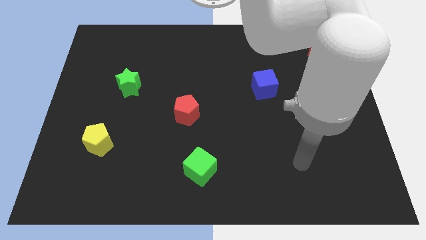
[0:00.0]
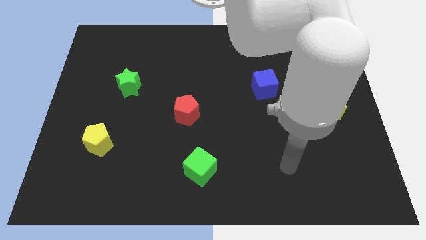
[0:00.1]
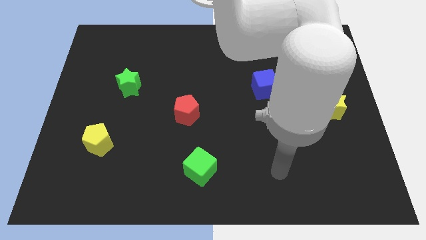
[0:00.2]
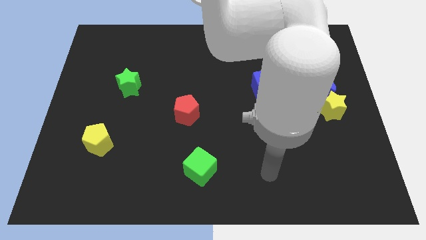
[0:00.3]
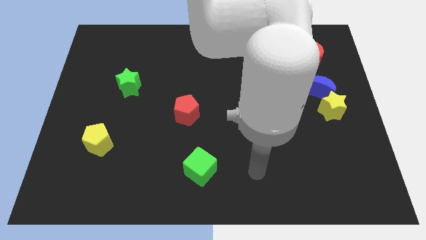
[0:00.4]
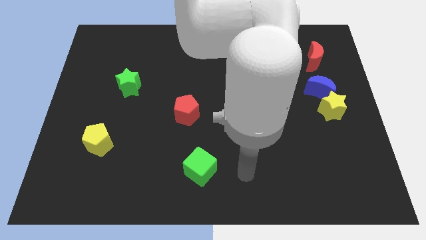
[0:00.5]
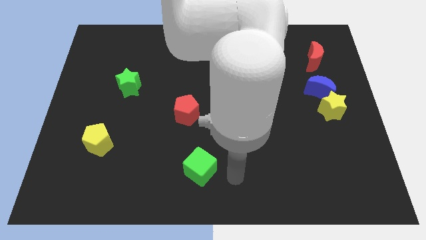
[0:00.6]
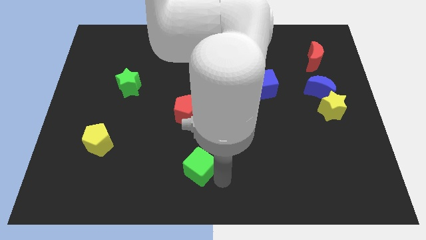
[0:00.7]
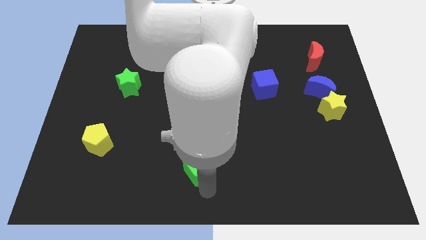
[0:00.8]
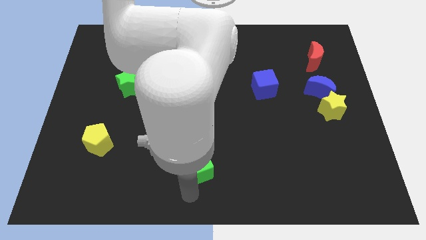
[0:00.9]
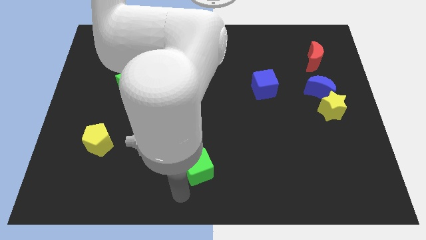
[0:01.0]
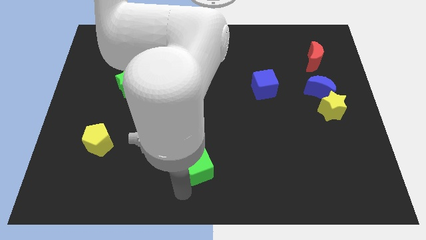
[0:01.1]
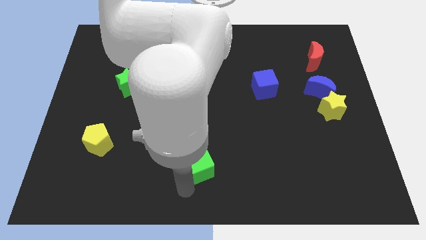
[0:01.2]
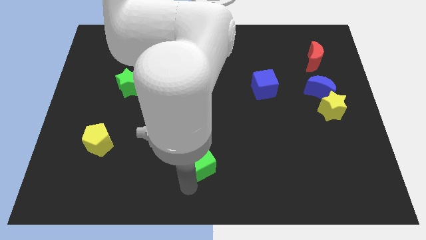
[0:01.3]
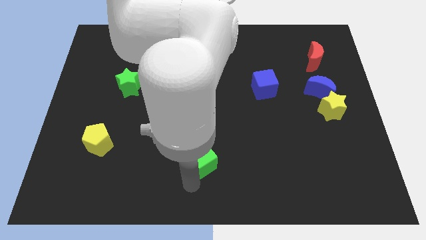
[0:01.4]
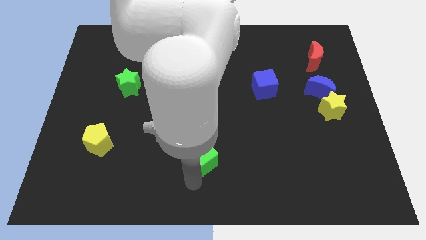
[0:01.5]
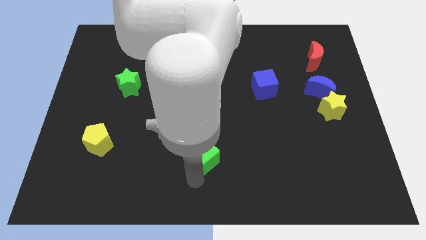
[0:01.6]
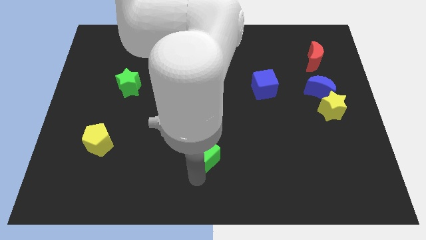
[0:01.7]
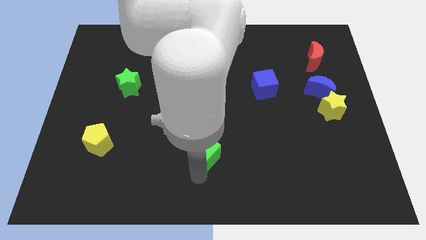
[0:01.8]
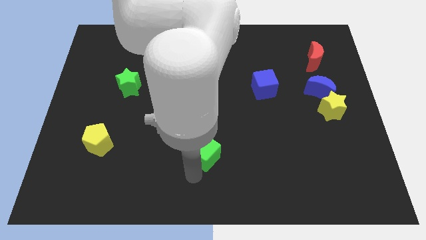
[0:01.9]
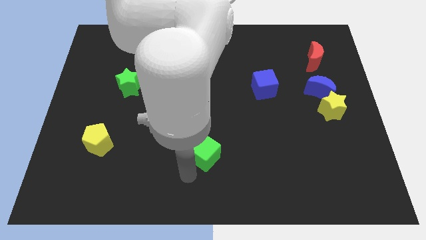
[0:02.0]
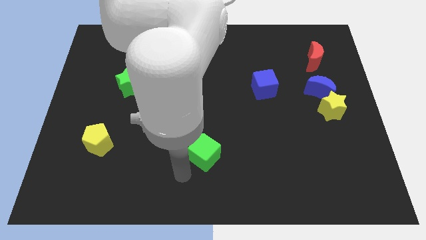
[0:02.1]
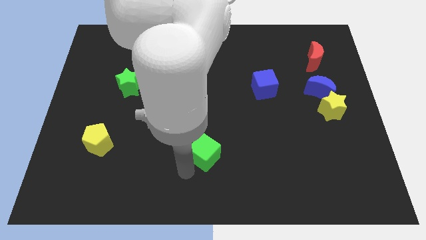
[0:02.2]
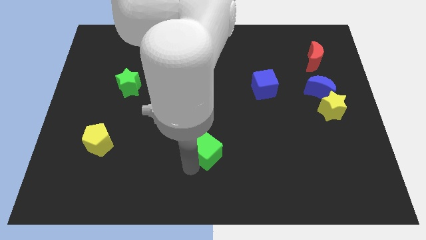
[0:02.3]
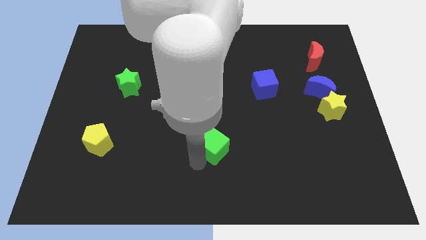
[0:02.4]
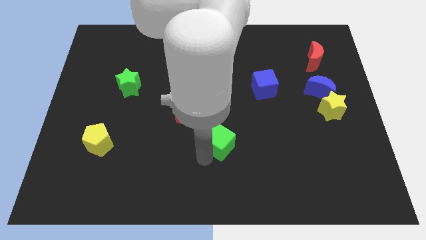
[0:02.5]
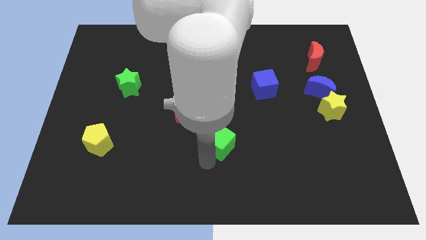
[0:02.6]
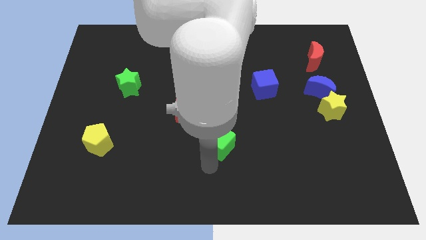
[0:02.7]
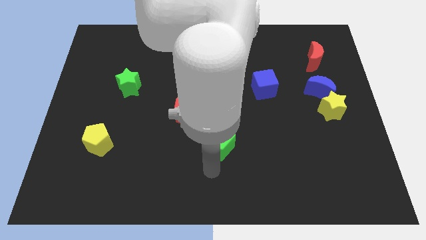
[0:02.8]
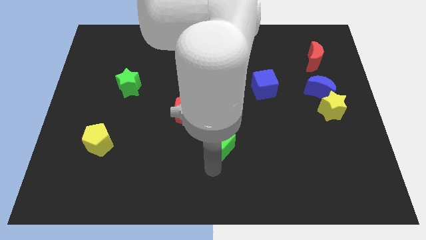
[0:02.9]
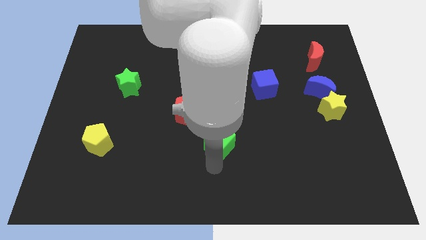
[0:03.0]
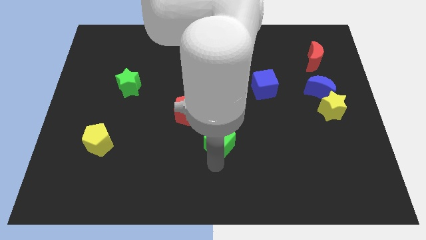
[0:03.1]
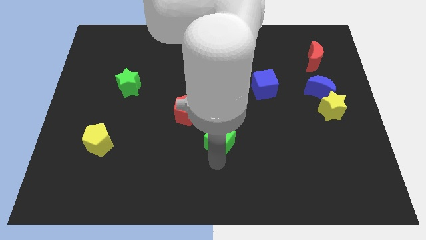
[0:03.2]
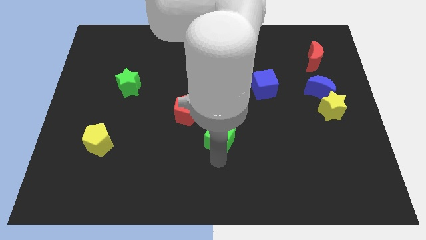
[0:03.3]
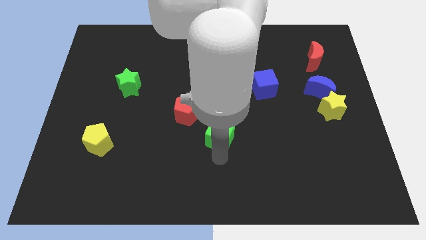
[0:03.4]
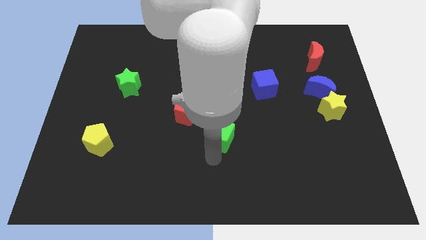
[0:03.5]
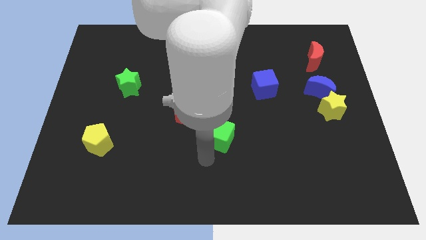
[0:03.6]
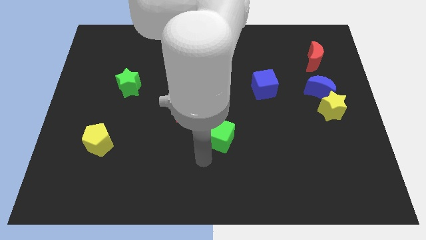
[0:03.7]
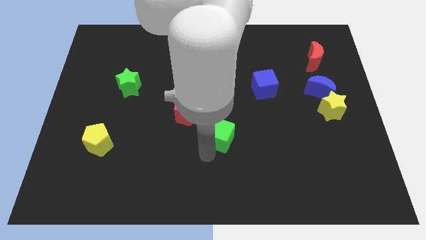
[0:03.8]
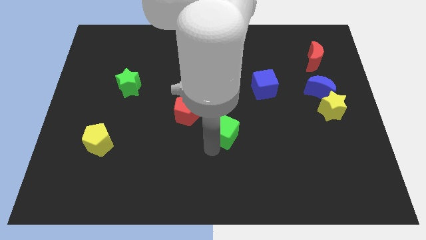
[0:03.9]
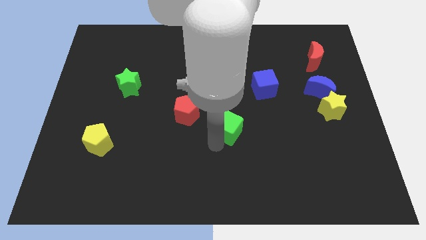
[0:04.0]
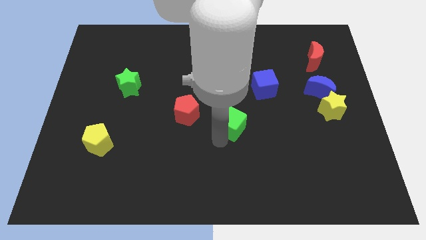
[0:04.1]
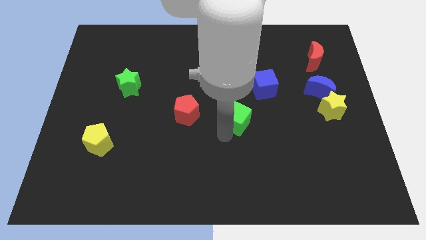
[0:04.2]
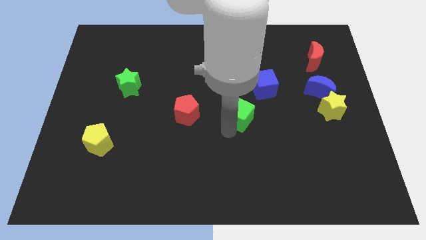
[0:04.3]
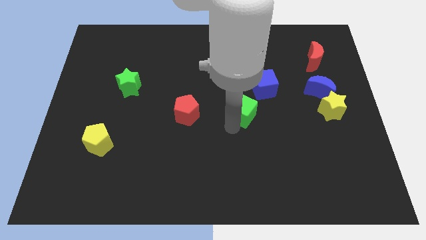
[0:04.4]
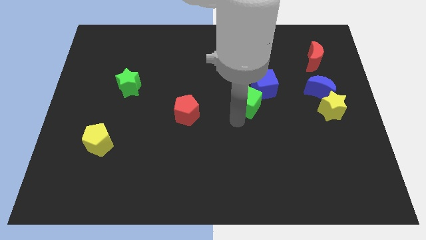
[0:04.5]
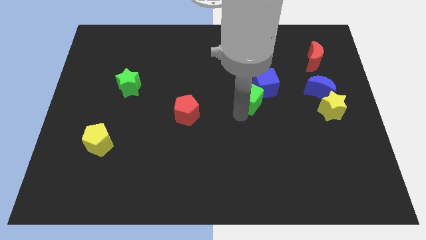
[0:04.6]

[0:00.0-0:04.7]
move the green cube to the blue cube

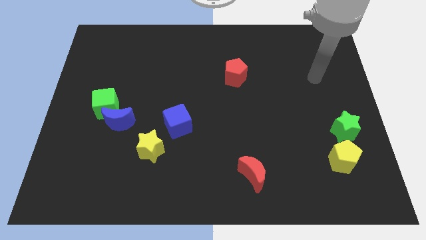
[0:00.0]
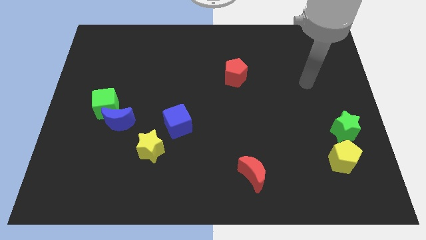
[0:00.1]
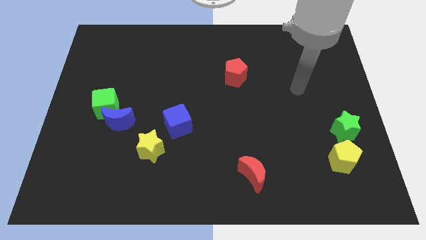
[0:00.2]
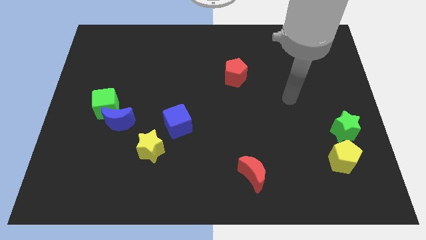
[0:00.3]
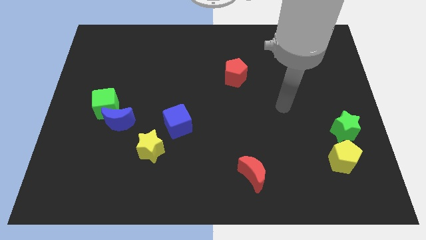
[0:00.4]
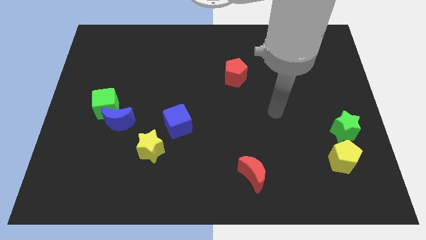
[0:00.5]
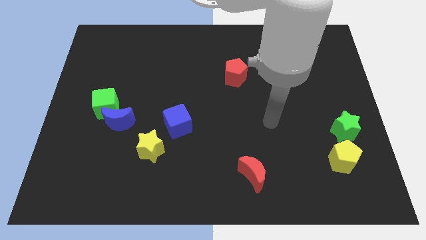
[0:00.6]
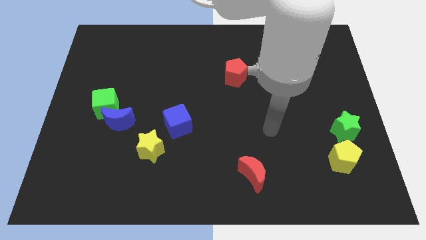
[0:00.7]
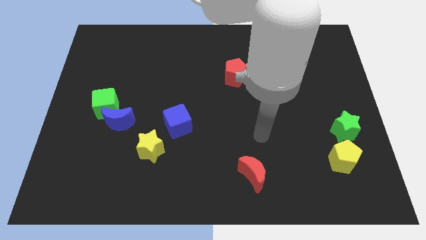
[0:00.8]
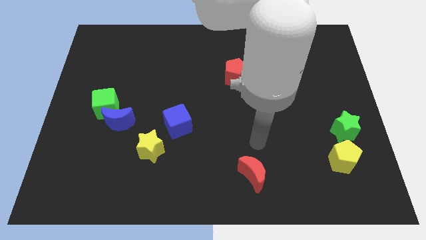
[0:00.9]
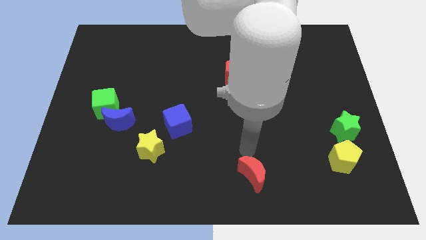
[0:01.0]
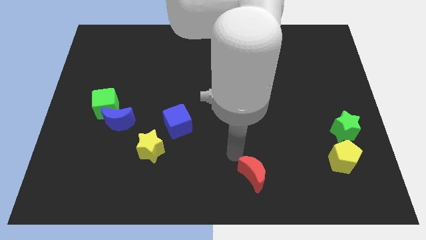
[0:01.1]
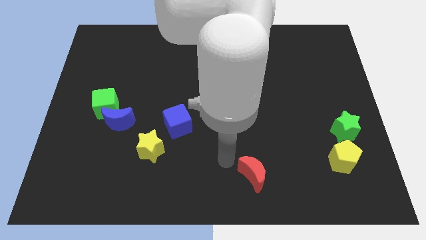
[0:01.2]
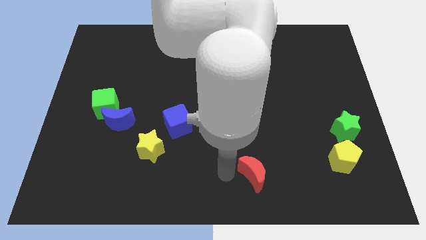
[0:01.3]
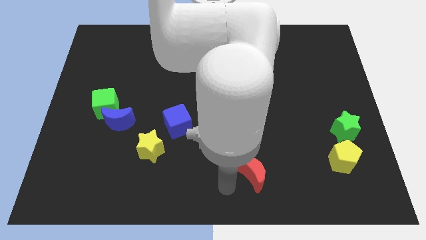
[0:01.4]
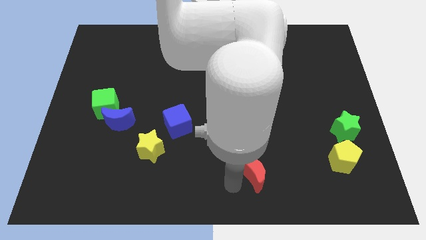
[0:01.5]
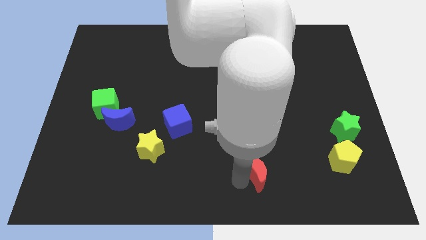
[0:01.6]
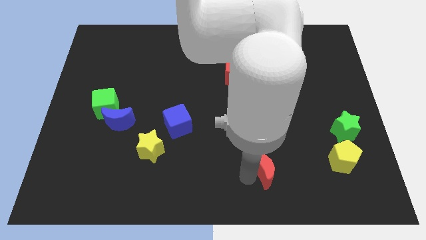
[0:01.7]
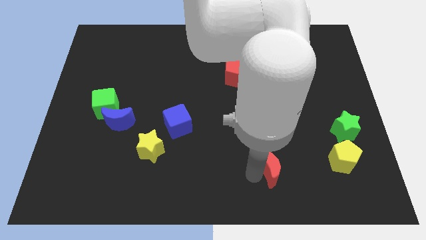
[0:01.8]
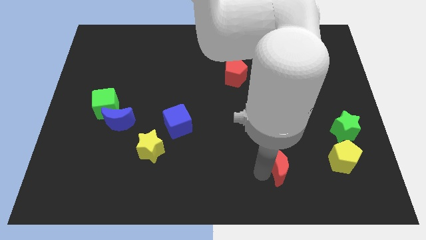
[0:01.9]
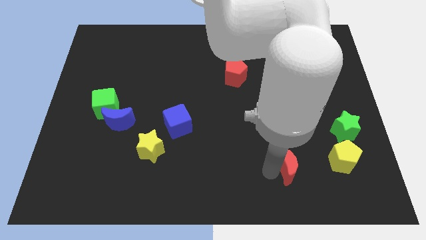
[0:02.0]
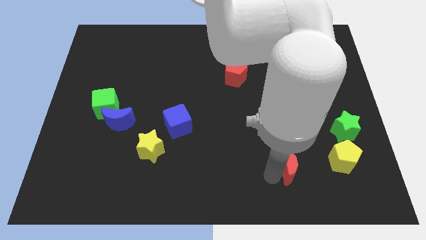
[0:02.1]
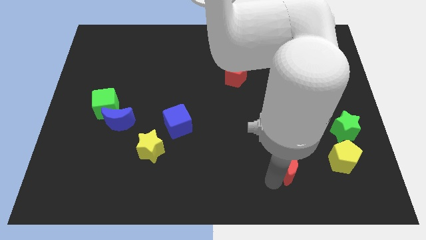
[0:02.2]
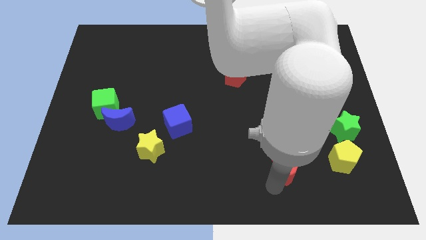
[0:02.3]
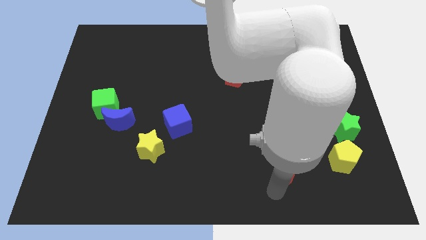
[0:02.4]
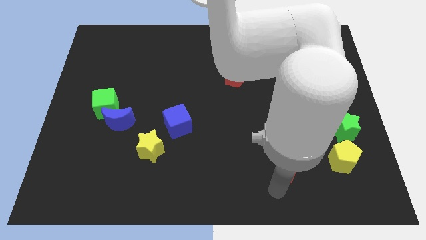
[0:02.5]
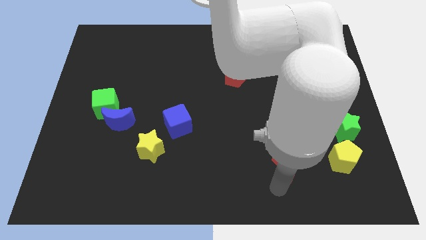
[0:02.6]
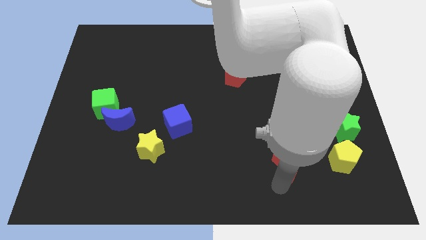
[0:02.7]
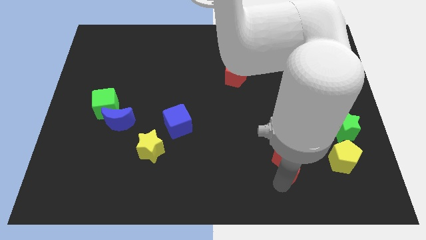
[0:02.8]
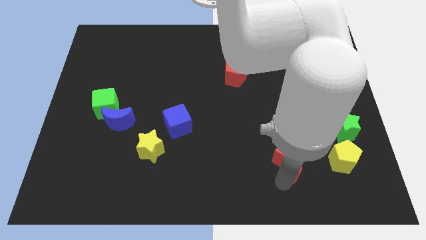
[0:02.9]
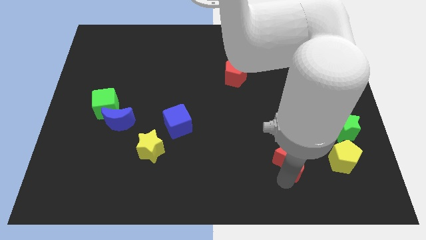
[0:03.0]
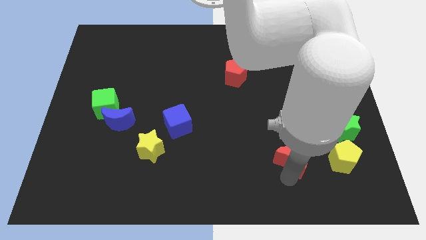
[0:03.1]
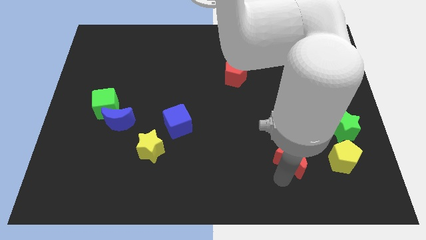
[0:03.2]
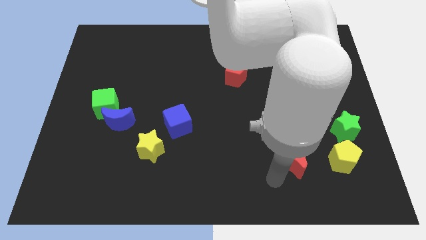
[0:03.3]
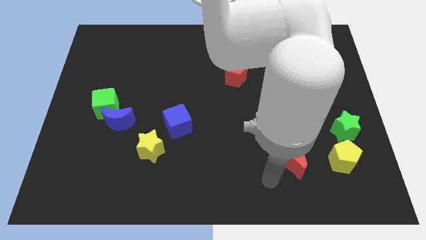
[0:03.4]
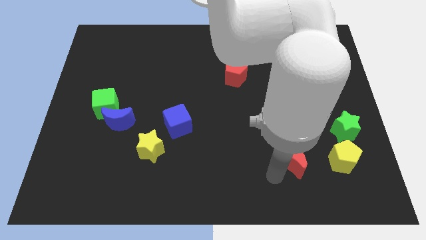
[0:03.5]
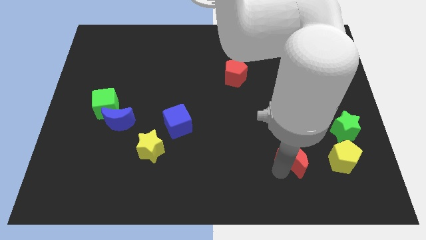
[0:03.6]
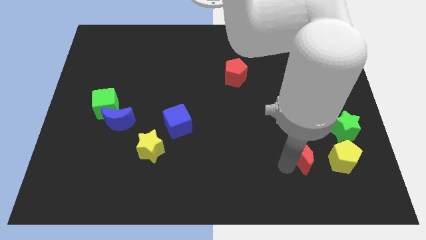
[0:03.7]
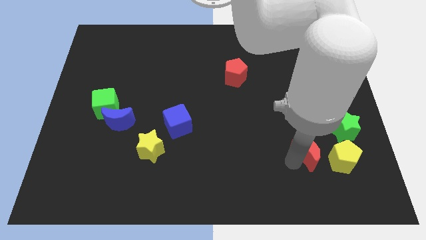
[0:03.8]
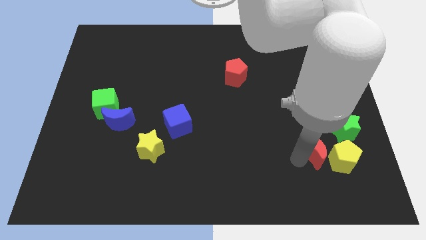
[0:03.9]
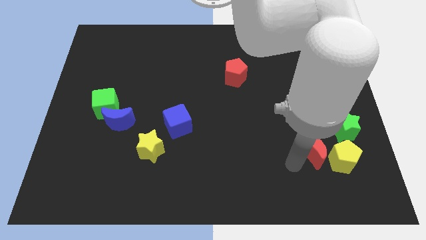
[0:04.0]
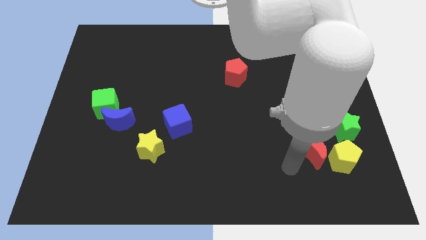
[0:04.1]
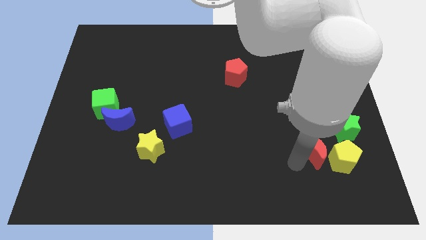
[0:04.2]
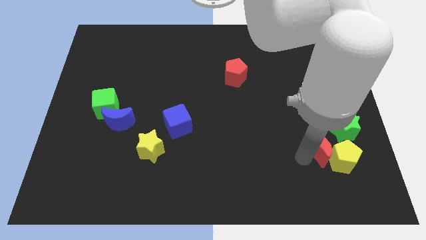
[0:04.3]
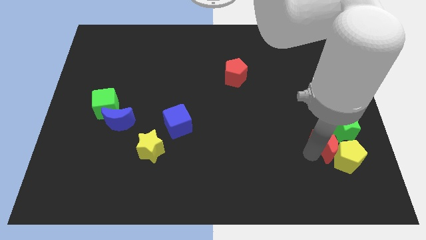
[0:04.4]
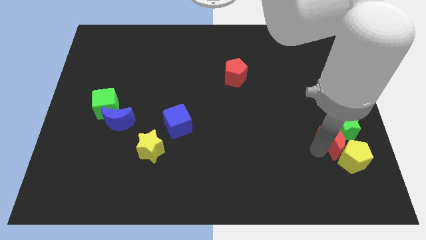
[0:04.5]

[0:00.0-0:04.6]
put the red moon towards the green star
